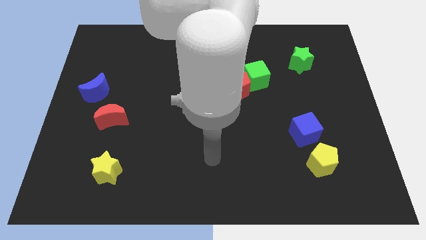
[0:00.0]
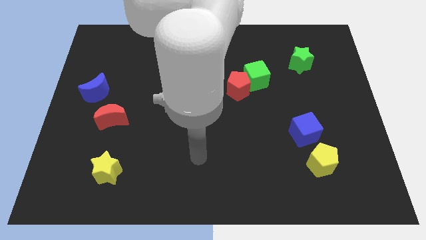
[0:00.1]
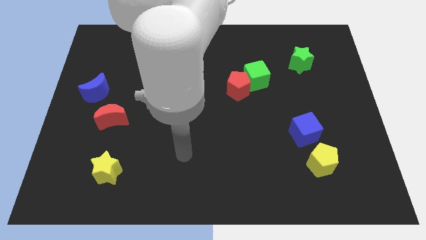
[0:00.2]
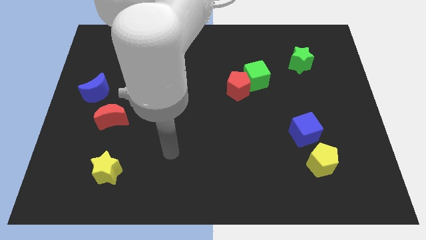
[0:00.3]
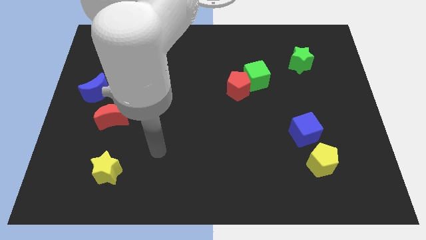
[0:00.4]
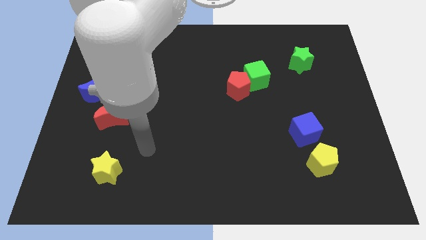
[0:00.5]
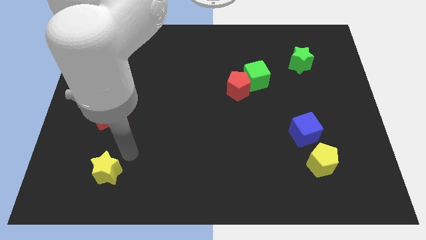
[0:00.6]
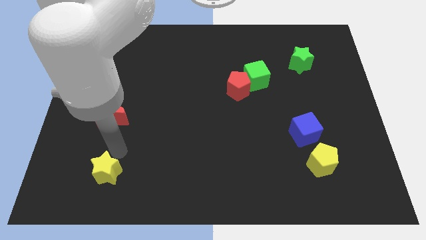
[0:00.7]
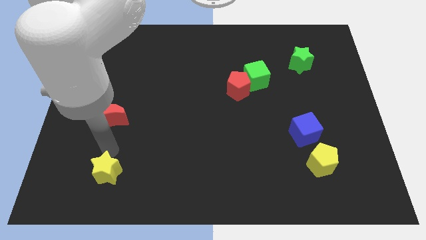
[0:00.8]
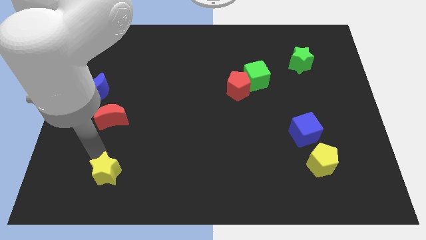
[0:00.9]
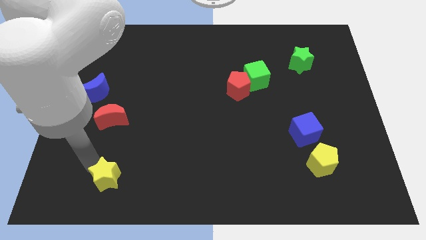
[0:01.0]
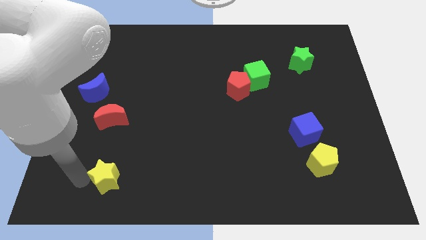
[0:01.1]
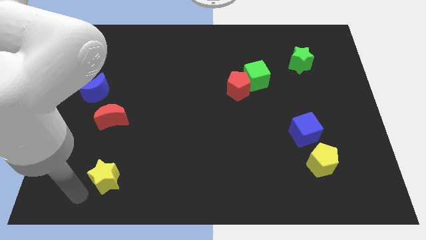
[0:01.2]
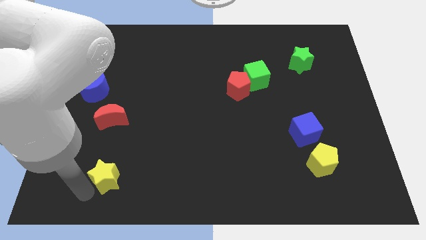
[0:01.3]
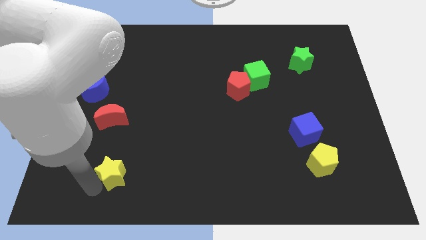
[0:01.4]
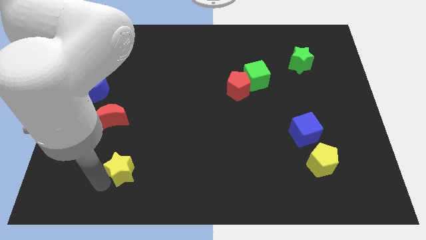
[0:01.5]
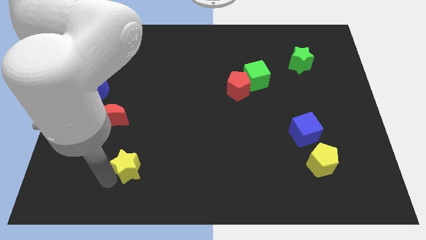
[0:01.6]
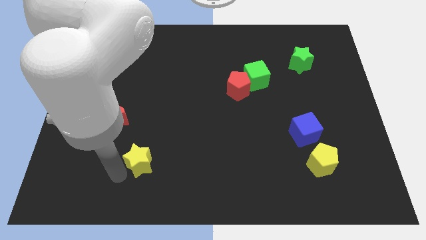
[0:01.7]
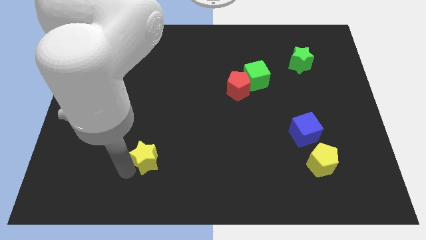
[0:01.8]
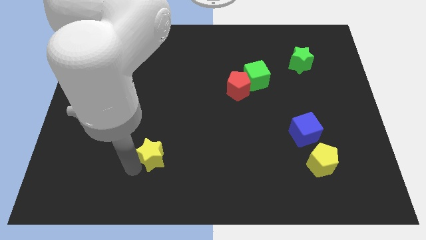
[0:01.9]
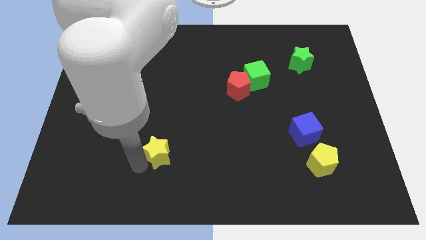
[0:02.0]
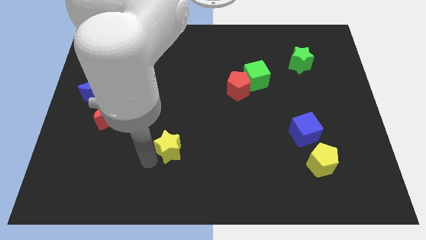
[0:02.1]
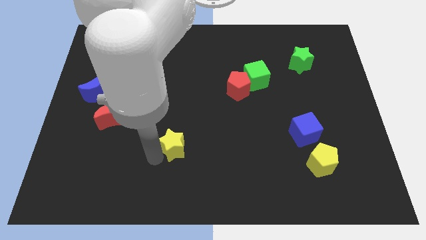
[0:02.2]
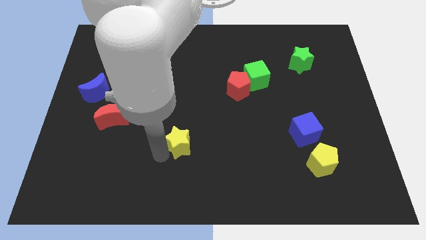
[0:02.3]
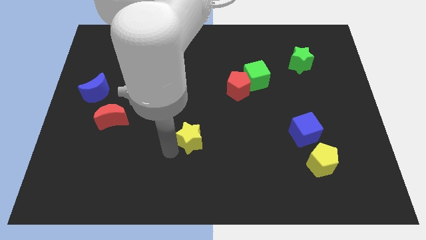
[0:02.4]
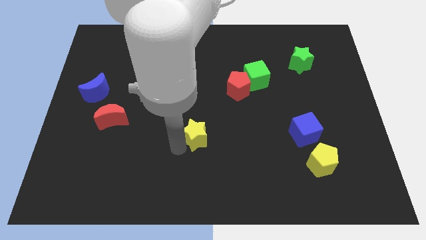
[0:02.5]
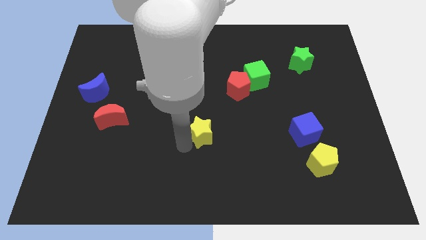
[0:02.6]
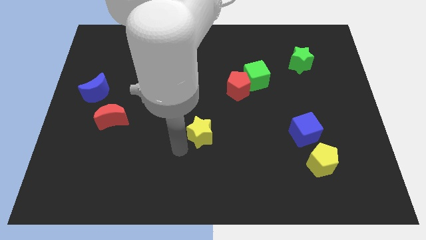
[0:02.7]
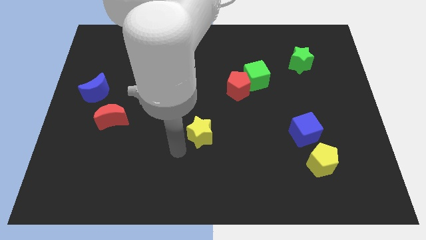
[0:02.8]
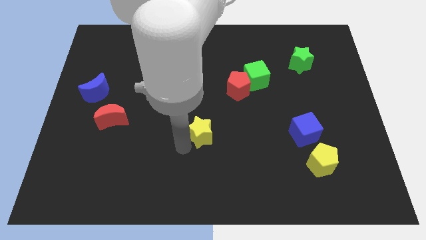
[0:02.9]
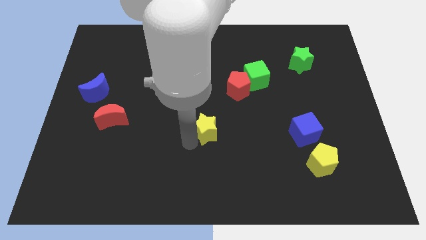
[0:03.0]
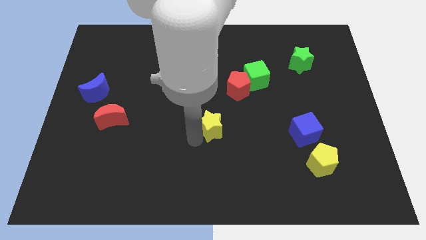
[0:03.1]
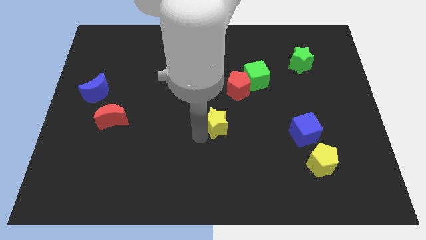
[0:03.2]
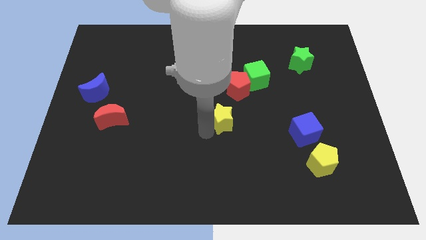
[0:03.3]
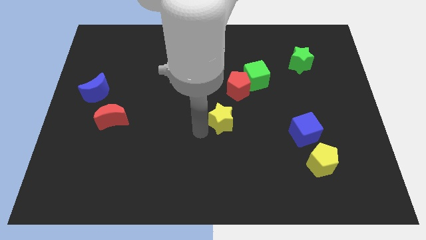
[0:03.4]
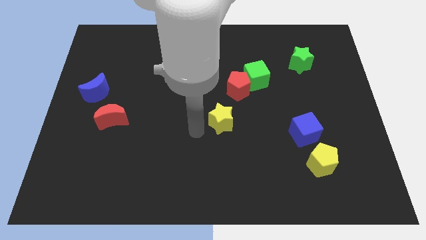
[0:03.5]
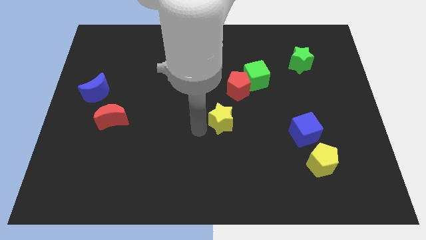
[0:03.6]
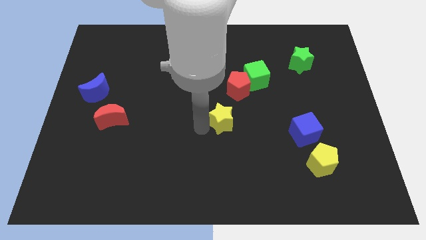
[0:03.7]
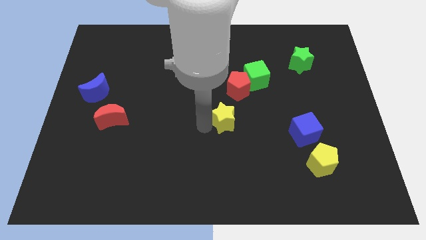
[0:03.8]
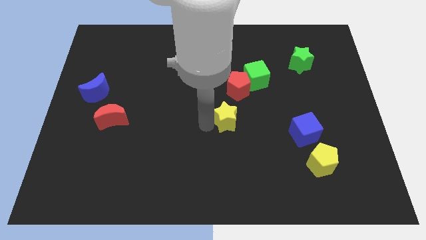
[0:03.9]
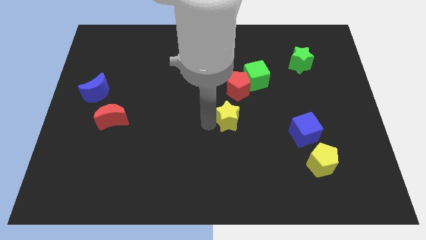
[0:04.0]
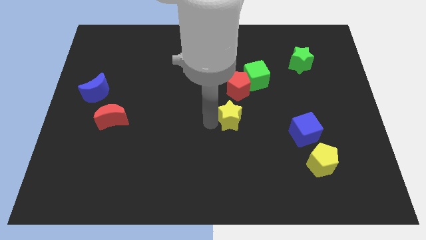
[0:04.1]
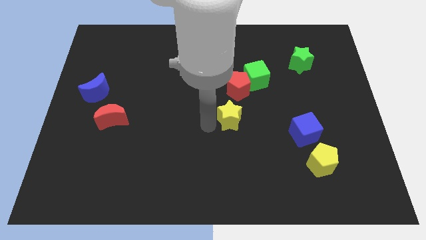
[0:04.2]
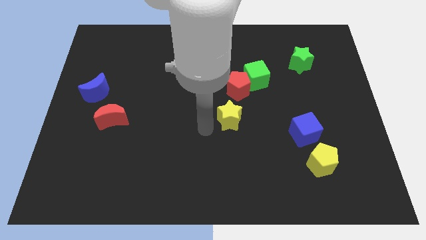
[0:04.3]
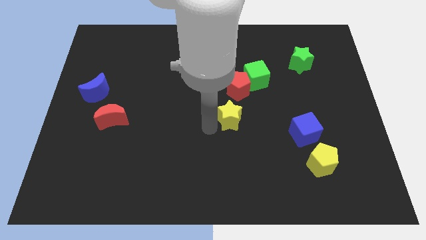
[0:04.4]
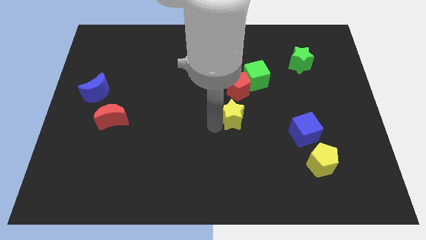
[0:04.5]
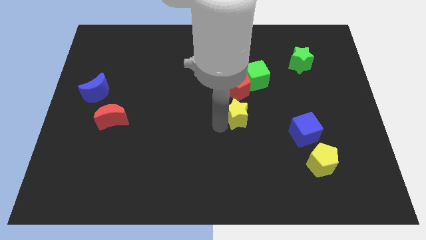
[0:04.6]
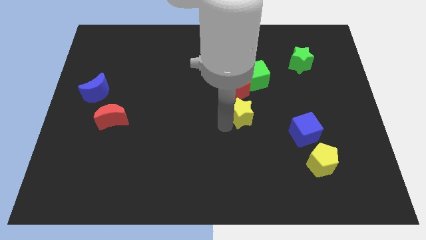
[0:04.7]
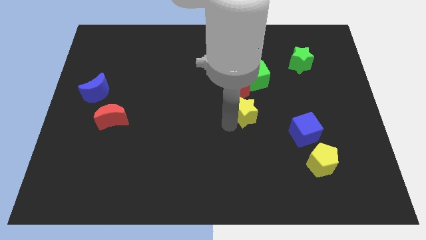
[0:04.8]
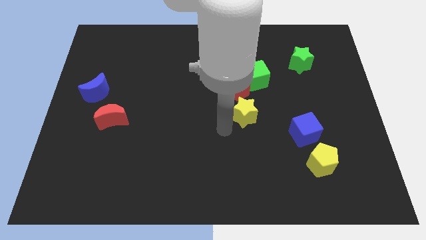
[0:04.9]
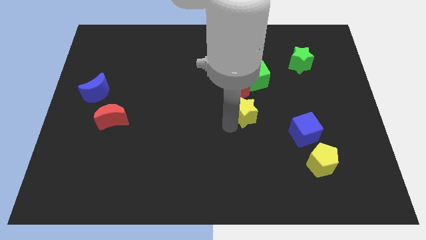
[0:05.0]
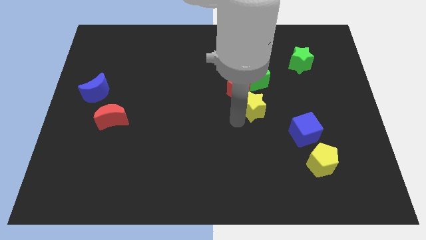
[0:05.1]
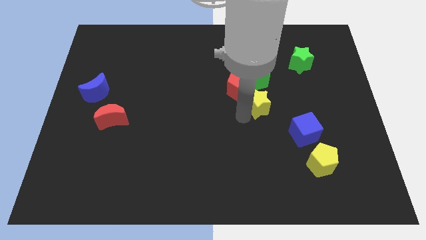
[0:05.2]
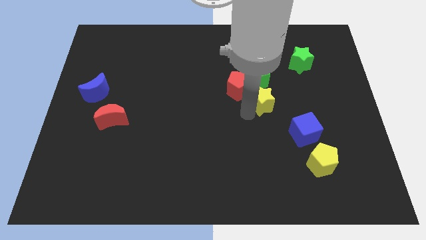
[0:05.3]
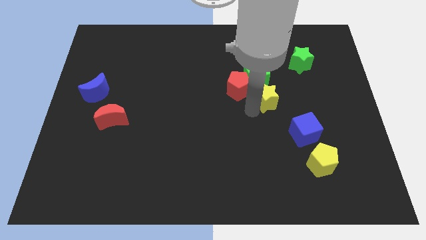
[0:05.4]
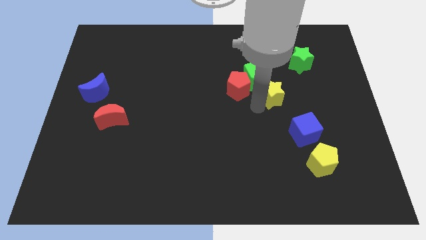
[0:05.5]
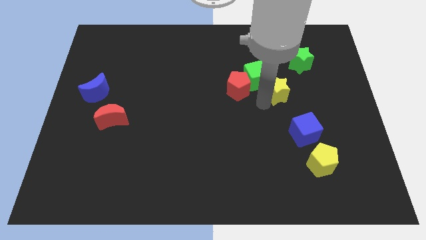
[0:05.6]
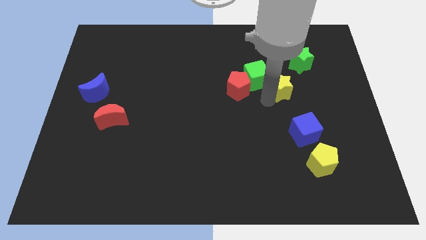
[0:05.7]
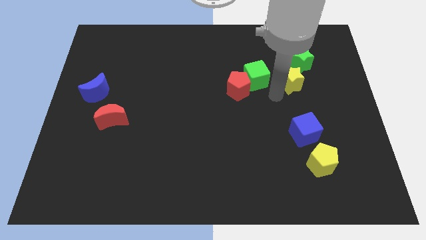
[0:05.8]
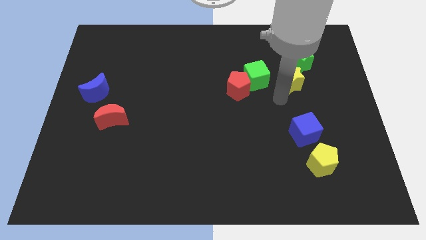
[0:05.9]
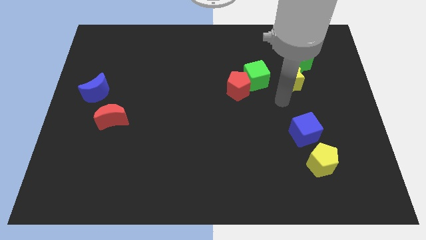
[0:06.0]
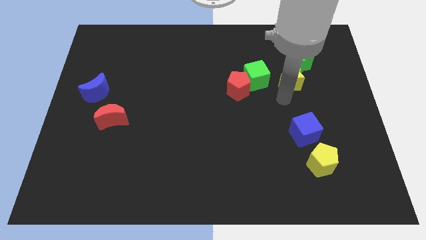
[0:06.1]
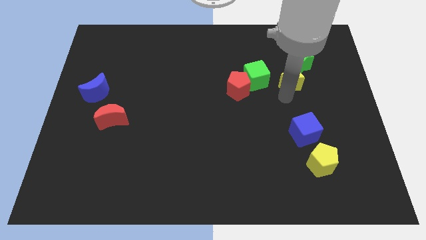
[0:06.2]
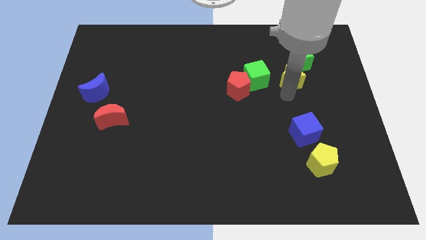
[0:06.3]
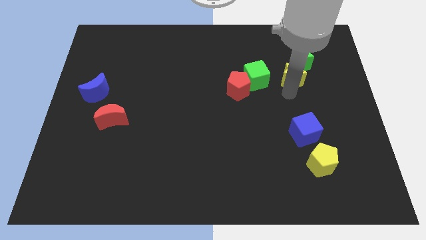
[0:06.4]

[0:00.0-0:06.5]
move the yellow star next to the green star
